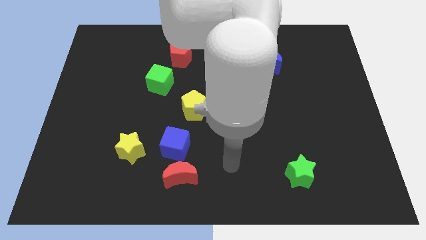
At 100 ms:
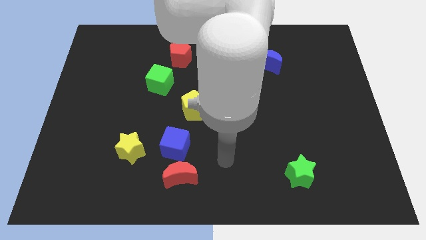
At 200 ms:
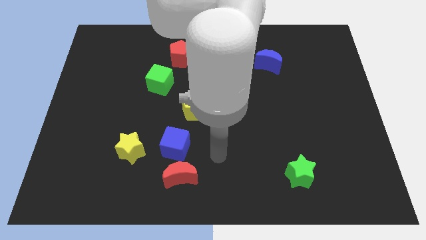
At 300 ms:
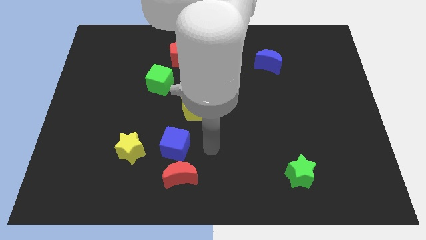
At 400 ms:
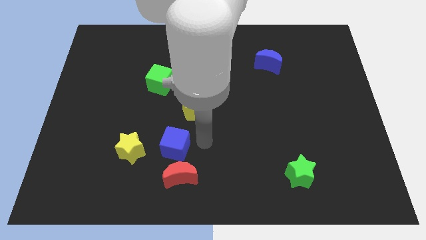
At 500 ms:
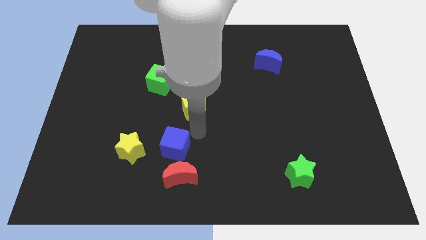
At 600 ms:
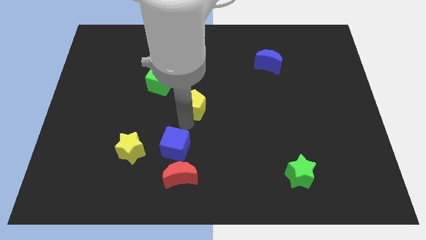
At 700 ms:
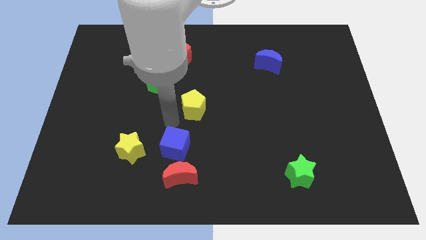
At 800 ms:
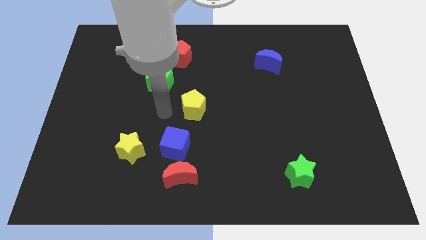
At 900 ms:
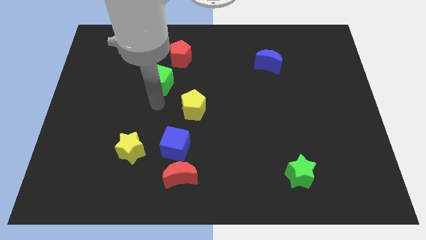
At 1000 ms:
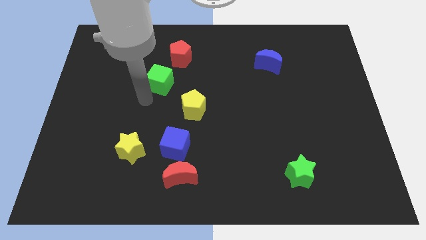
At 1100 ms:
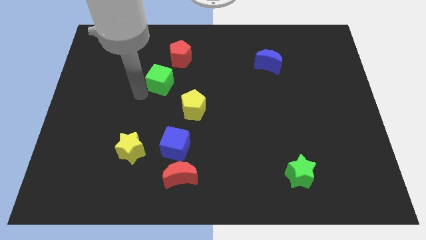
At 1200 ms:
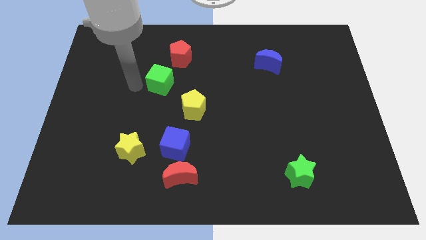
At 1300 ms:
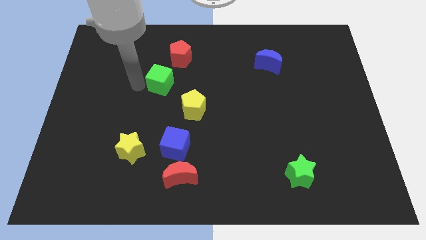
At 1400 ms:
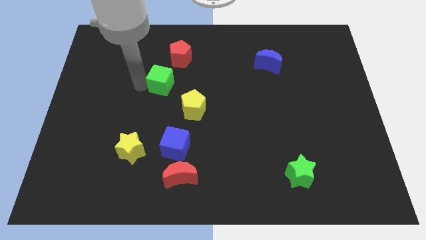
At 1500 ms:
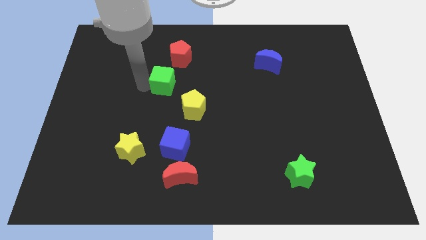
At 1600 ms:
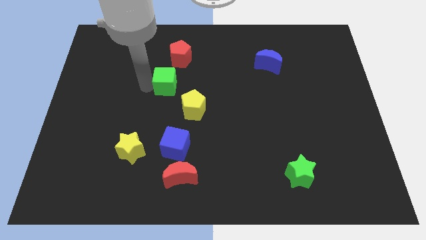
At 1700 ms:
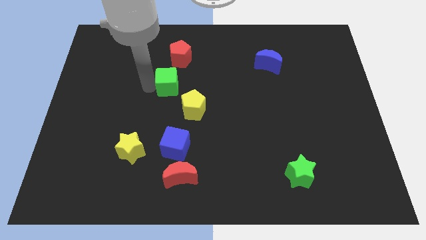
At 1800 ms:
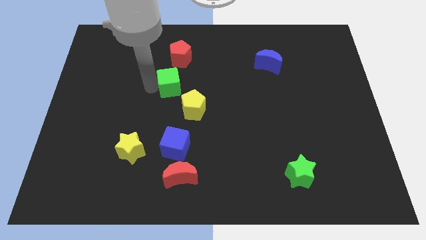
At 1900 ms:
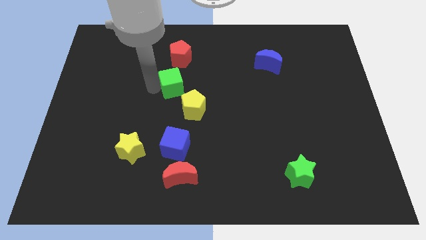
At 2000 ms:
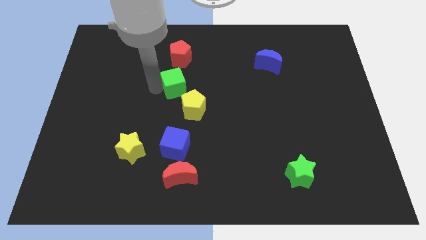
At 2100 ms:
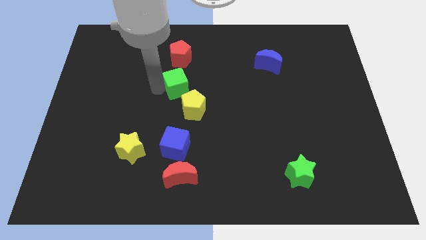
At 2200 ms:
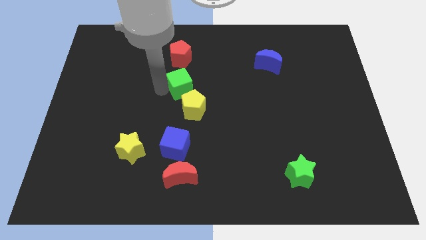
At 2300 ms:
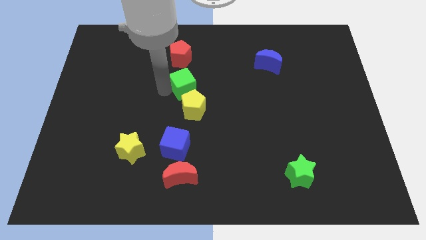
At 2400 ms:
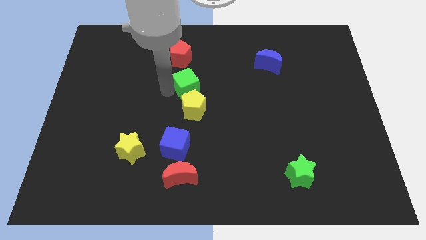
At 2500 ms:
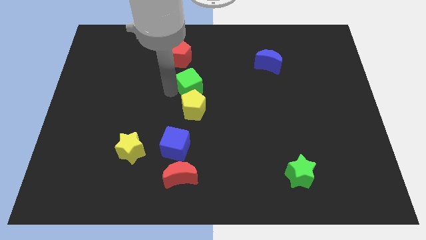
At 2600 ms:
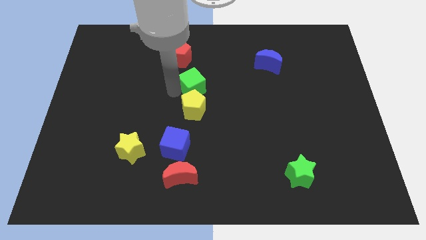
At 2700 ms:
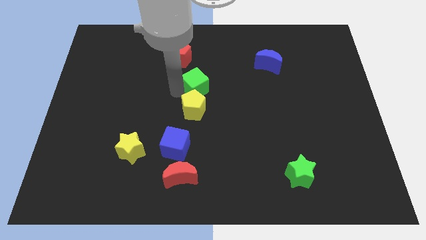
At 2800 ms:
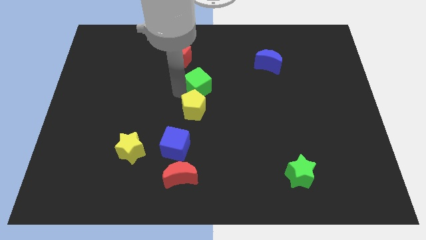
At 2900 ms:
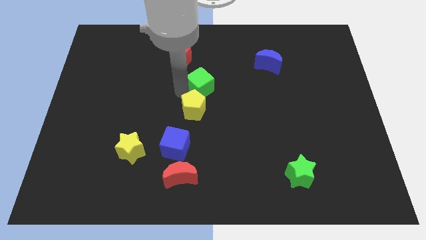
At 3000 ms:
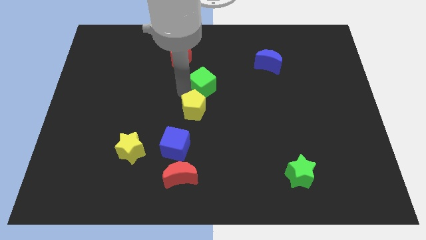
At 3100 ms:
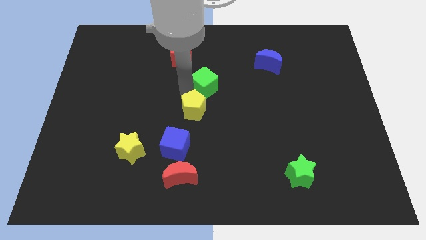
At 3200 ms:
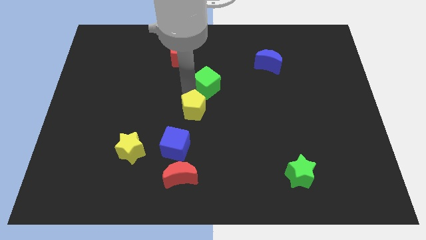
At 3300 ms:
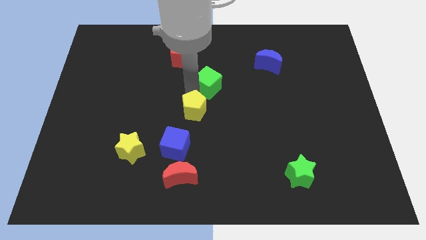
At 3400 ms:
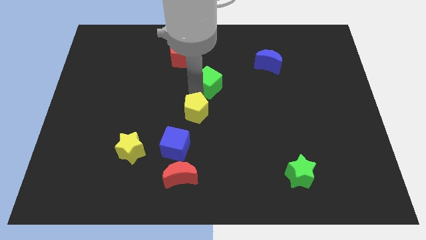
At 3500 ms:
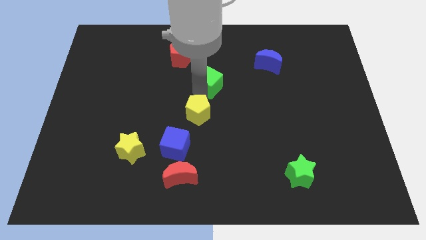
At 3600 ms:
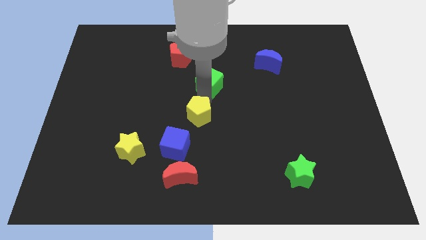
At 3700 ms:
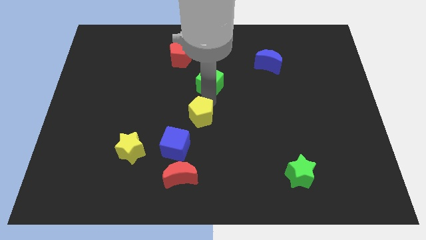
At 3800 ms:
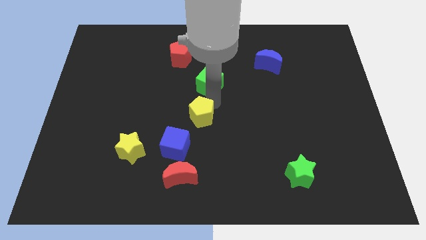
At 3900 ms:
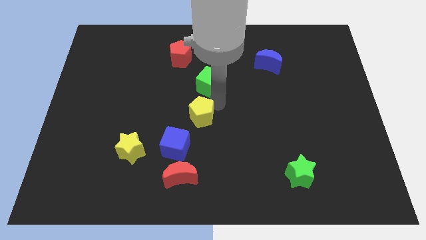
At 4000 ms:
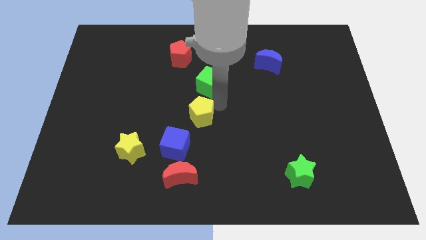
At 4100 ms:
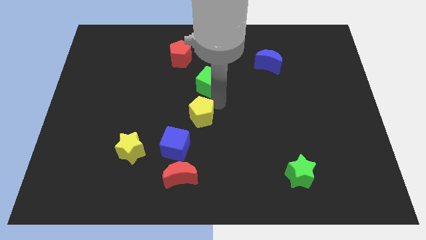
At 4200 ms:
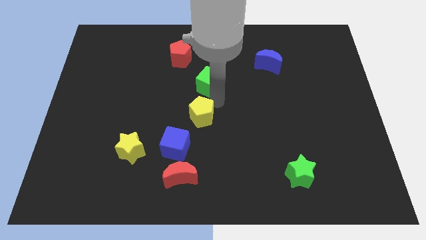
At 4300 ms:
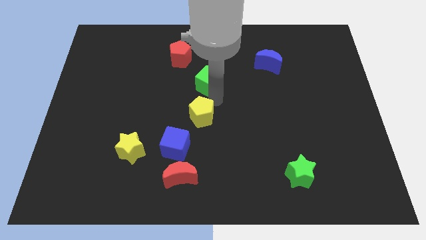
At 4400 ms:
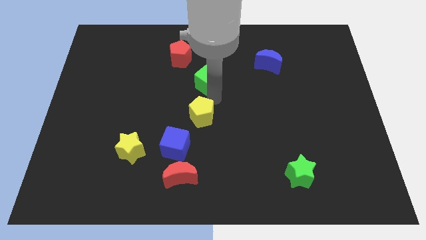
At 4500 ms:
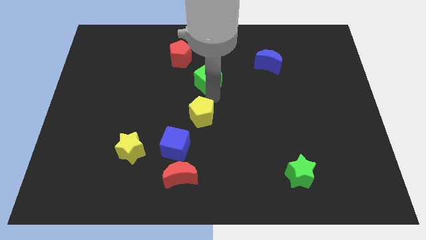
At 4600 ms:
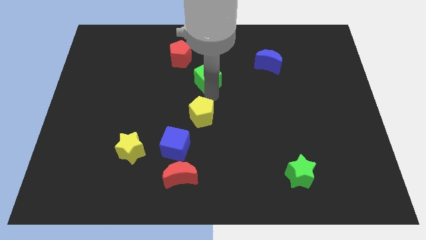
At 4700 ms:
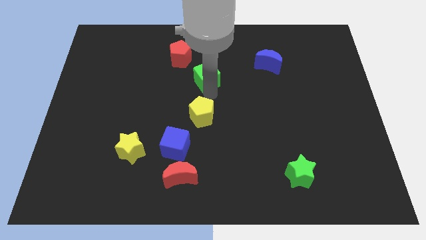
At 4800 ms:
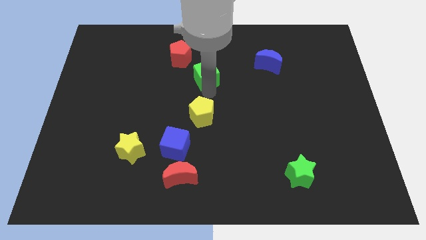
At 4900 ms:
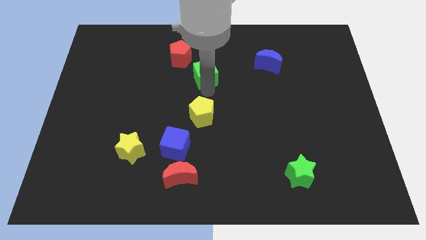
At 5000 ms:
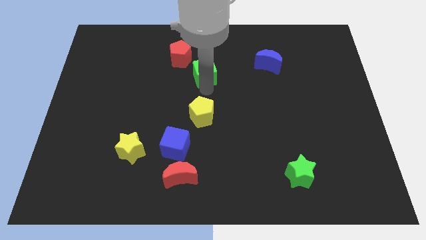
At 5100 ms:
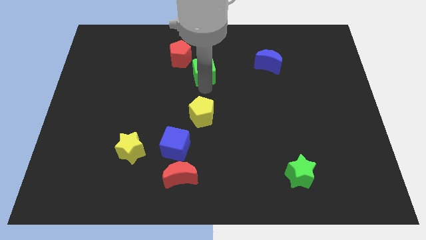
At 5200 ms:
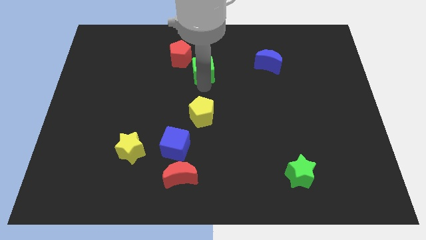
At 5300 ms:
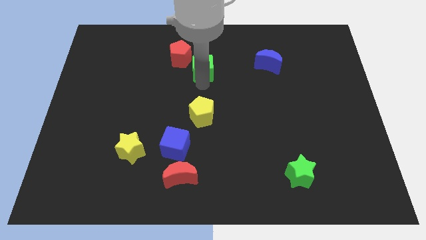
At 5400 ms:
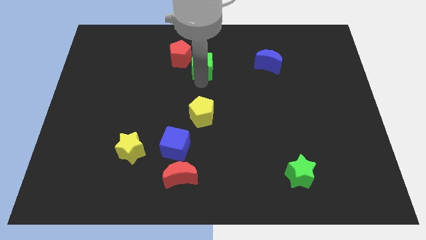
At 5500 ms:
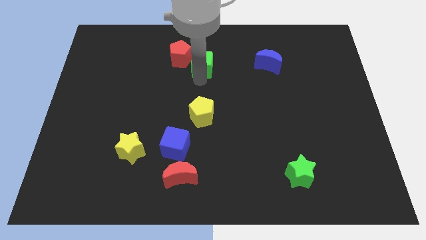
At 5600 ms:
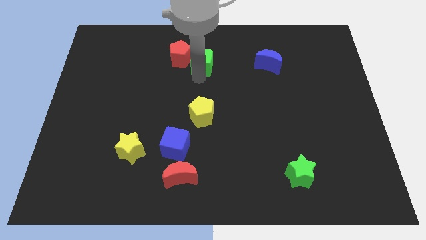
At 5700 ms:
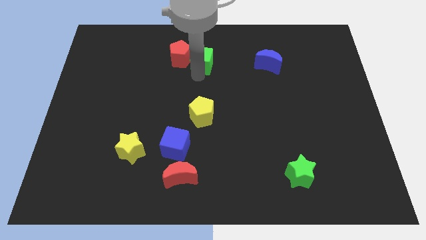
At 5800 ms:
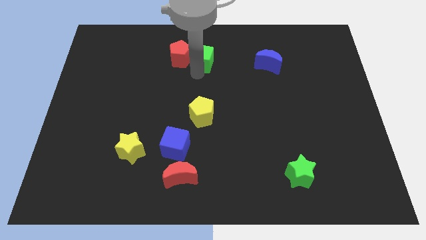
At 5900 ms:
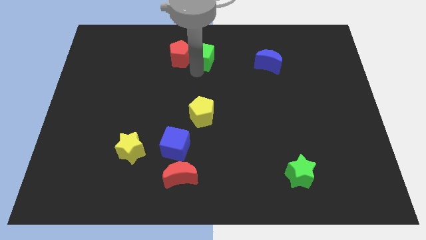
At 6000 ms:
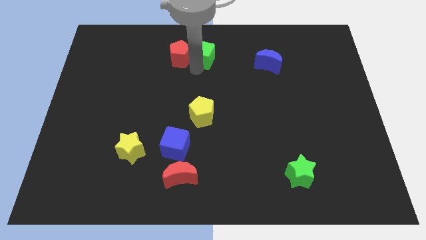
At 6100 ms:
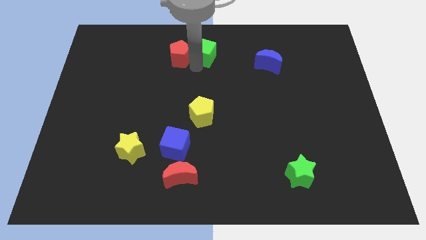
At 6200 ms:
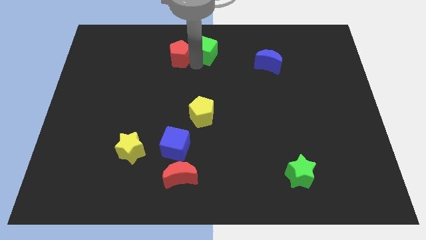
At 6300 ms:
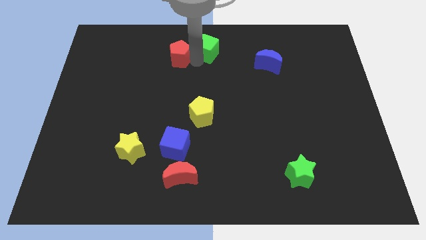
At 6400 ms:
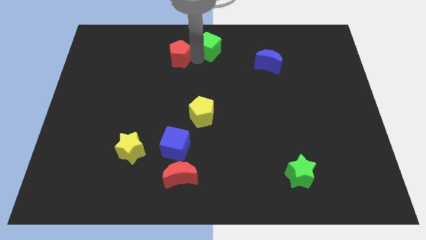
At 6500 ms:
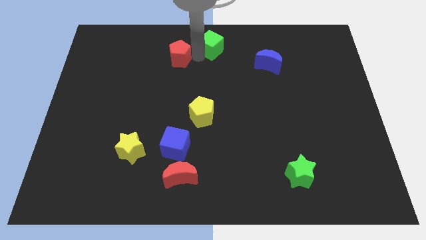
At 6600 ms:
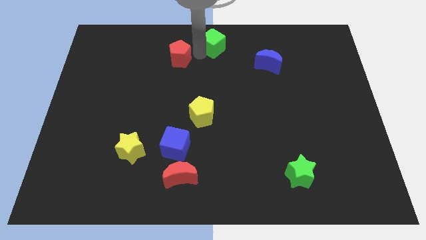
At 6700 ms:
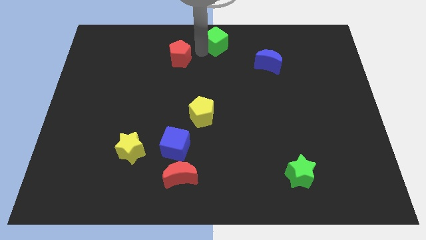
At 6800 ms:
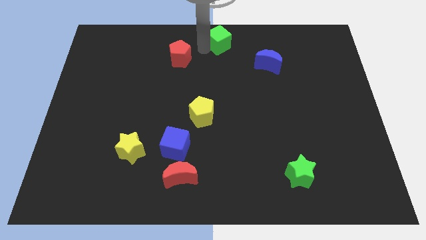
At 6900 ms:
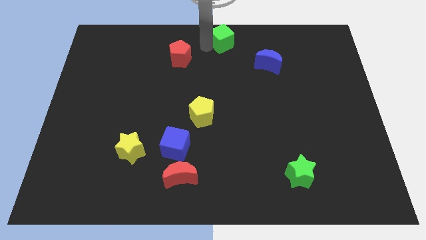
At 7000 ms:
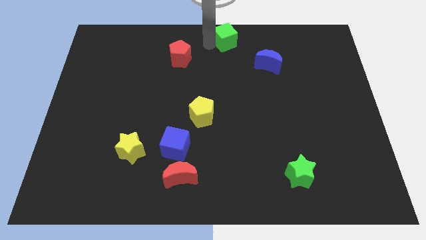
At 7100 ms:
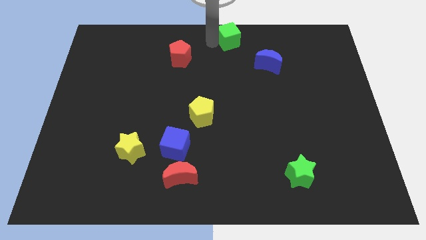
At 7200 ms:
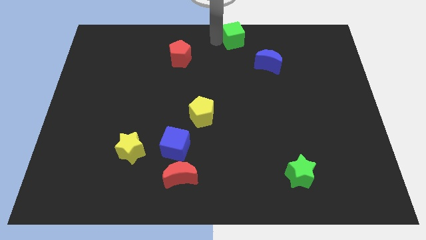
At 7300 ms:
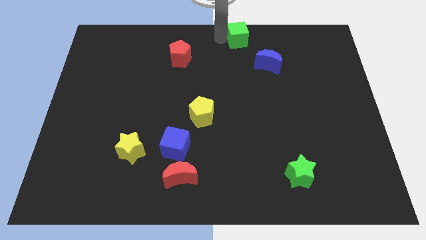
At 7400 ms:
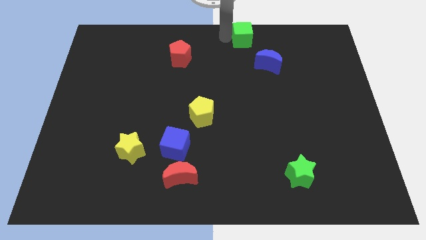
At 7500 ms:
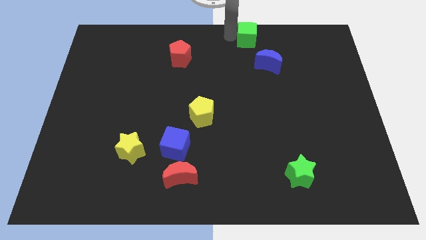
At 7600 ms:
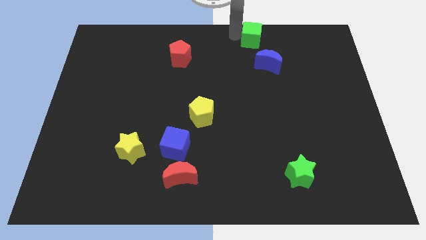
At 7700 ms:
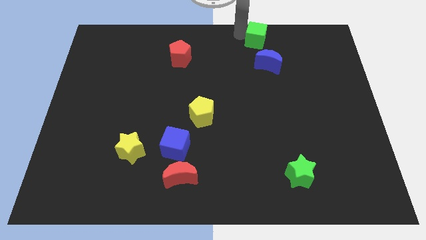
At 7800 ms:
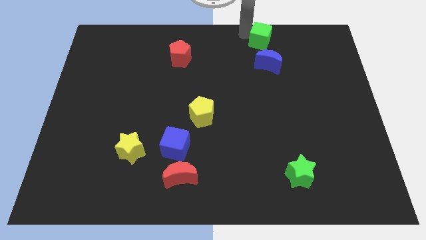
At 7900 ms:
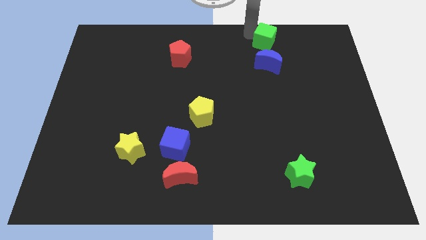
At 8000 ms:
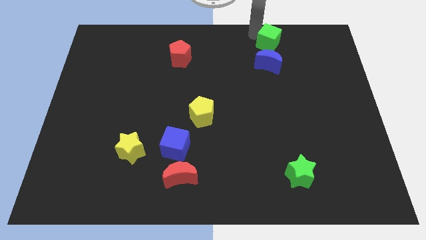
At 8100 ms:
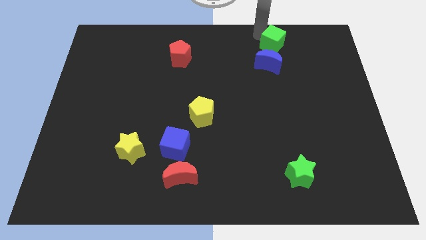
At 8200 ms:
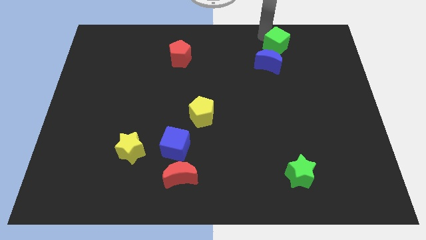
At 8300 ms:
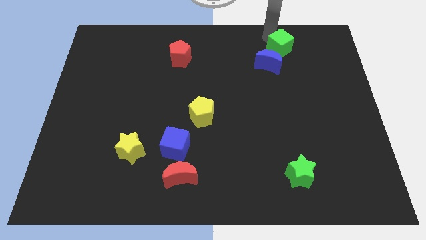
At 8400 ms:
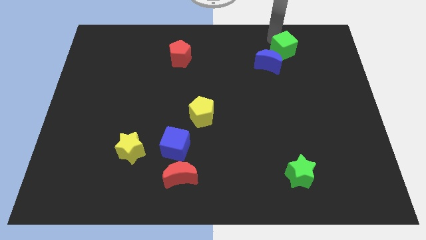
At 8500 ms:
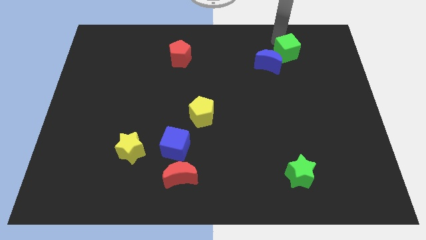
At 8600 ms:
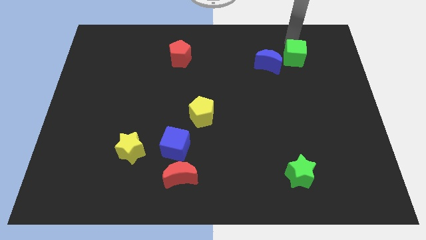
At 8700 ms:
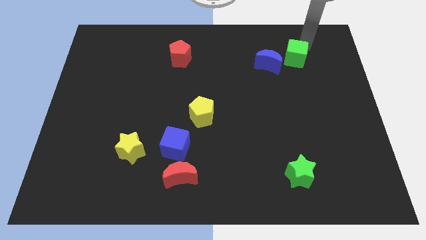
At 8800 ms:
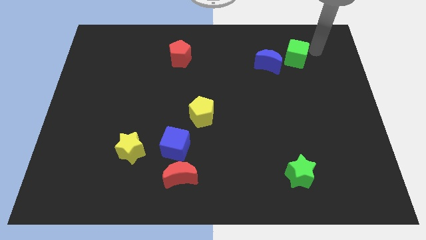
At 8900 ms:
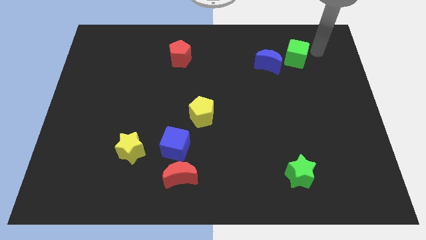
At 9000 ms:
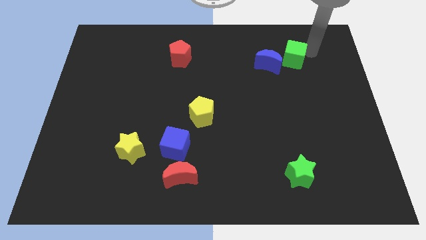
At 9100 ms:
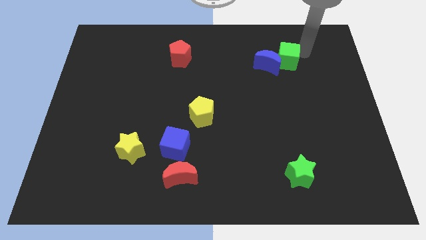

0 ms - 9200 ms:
push the green cube close to the blue moon
